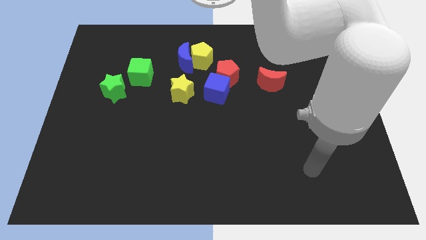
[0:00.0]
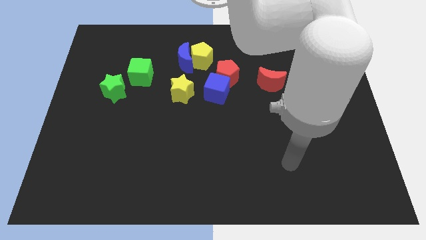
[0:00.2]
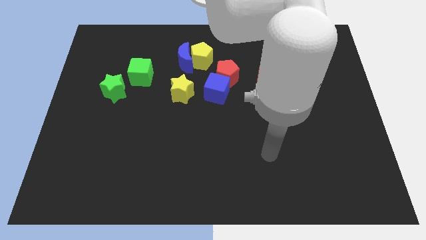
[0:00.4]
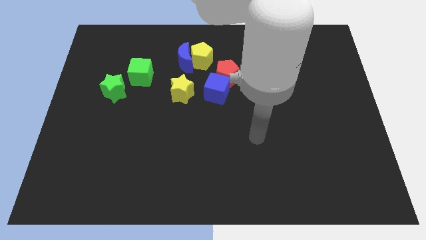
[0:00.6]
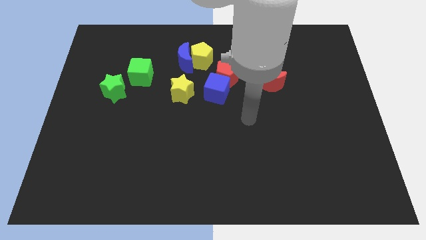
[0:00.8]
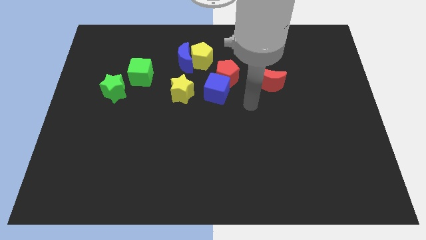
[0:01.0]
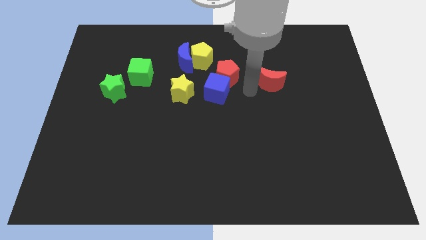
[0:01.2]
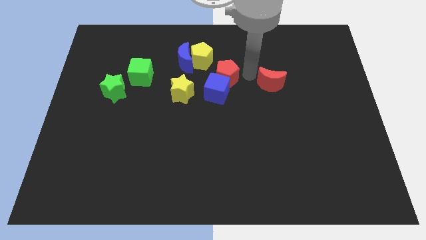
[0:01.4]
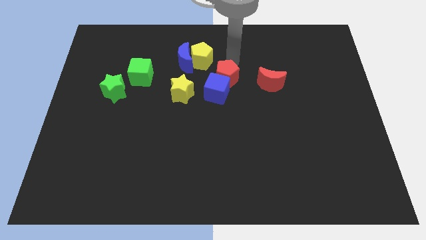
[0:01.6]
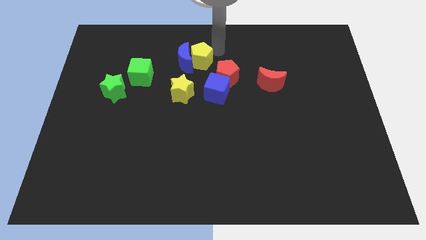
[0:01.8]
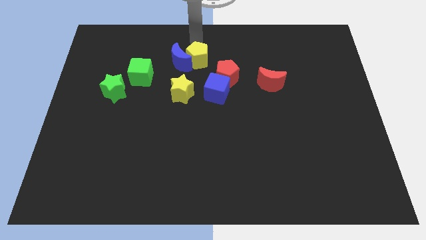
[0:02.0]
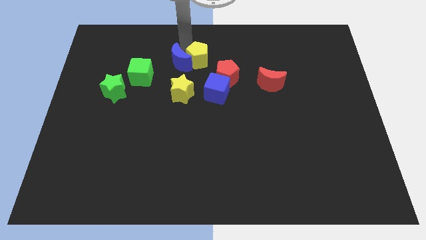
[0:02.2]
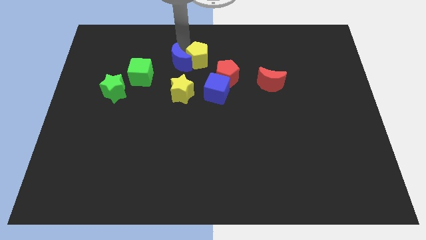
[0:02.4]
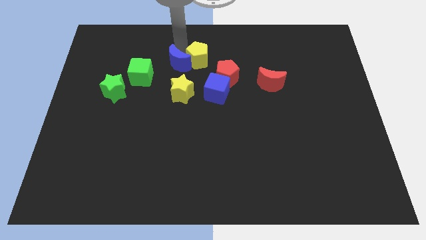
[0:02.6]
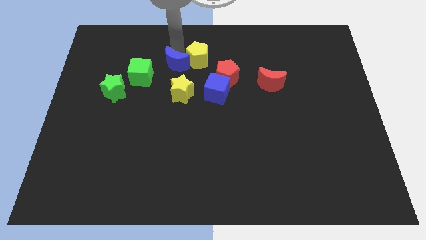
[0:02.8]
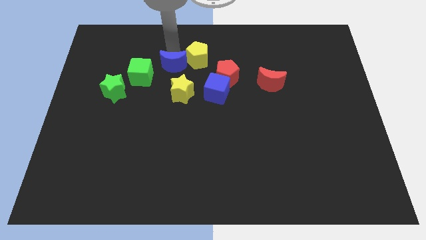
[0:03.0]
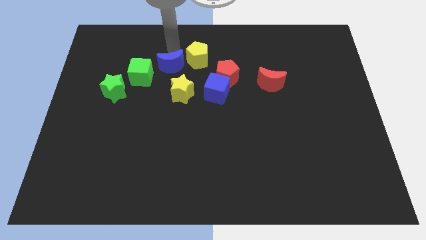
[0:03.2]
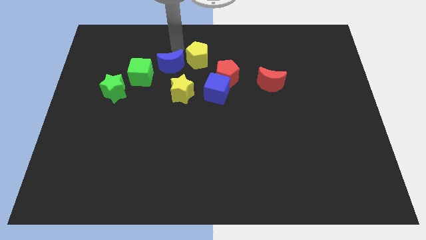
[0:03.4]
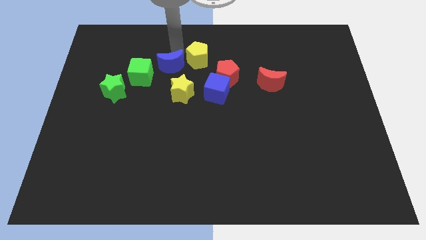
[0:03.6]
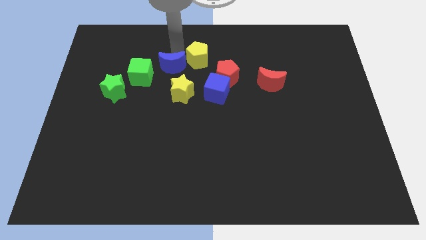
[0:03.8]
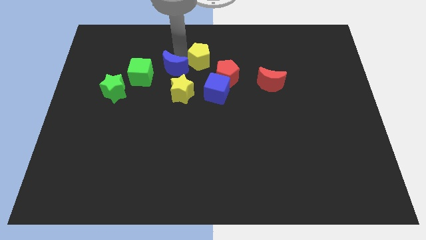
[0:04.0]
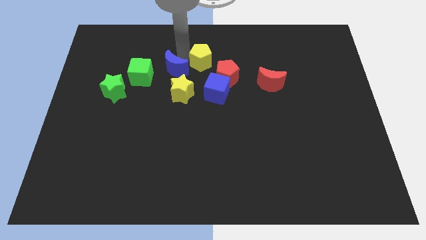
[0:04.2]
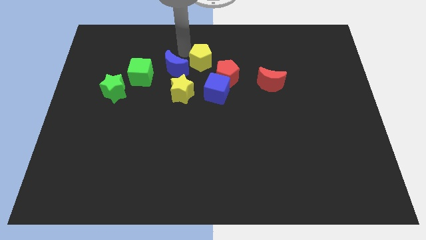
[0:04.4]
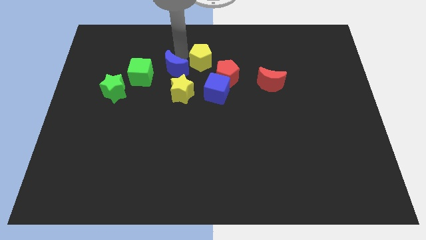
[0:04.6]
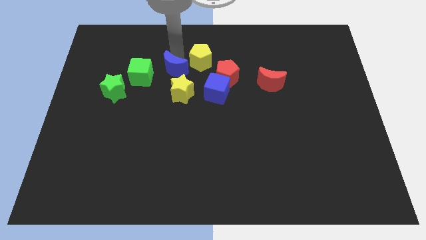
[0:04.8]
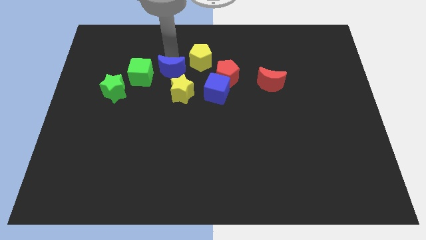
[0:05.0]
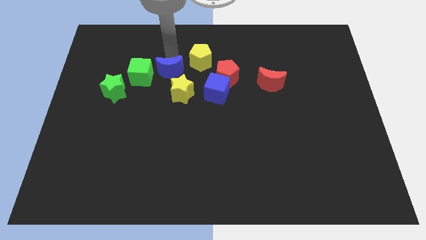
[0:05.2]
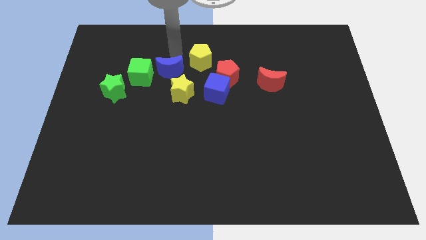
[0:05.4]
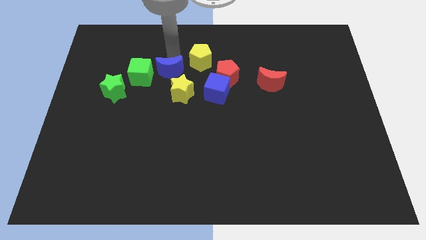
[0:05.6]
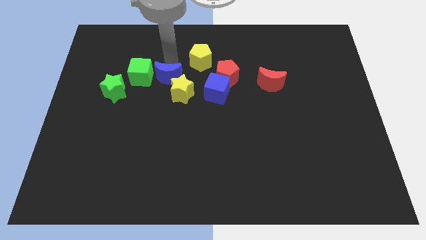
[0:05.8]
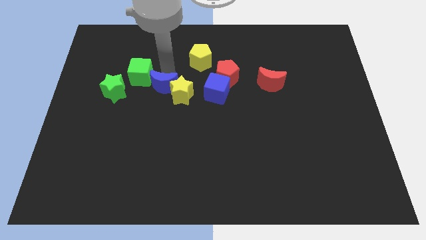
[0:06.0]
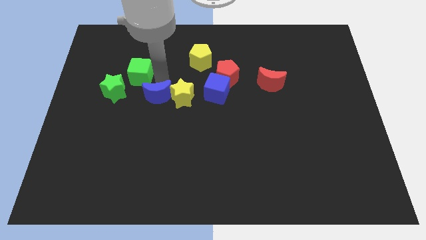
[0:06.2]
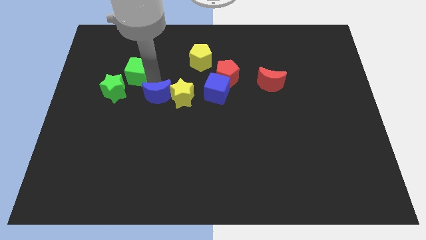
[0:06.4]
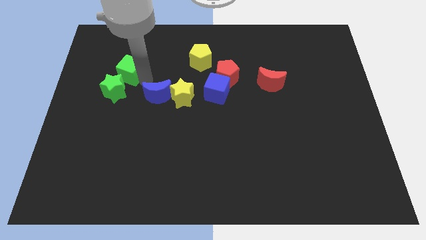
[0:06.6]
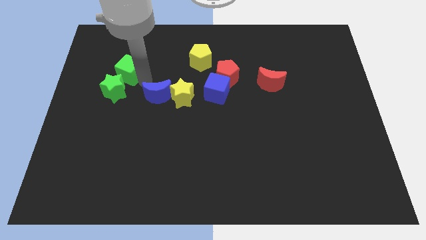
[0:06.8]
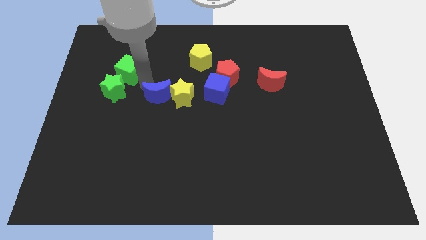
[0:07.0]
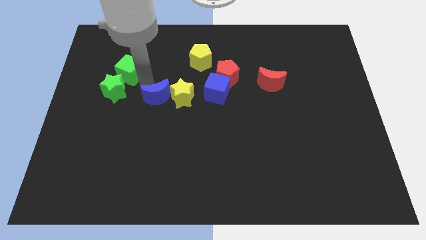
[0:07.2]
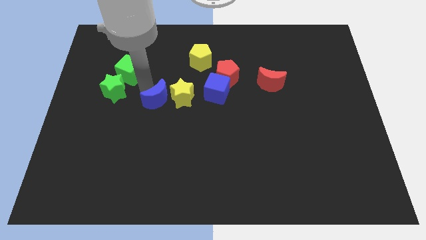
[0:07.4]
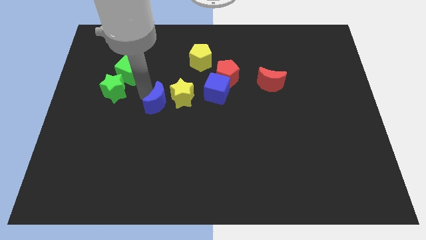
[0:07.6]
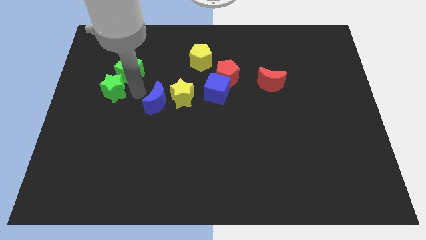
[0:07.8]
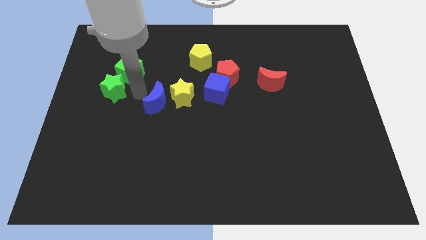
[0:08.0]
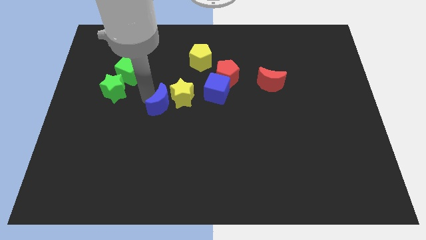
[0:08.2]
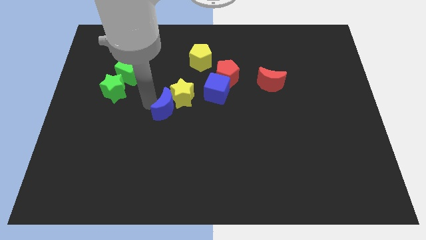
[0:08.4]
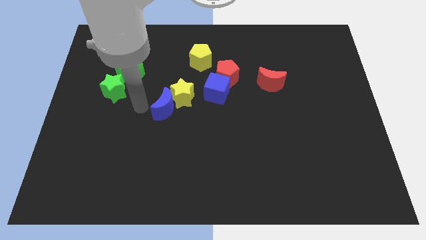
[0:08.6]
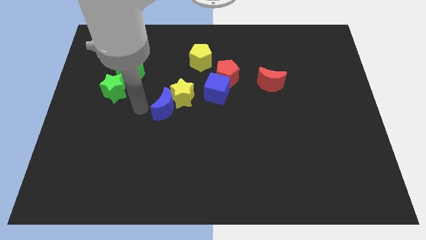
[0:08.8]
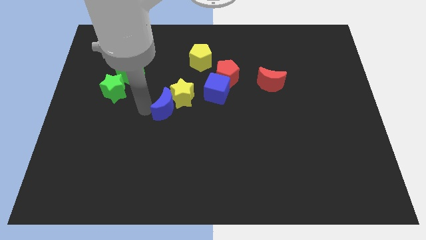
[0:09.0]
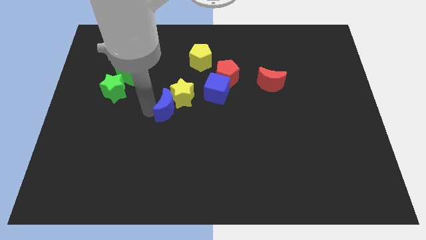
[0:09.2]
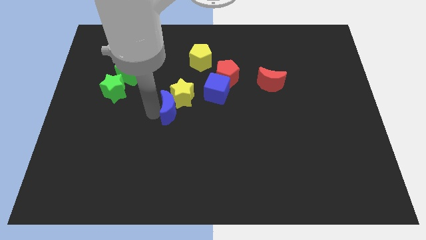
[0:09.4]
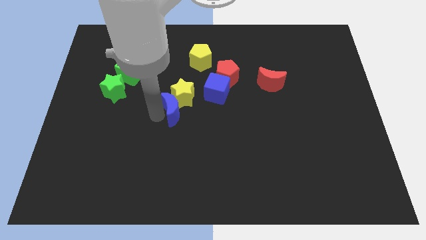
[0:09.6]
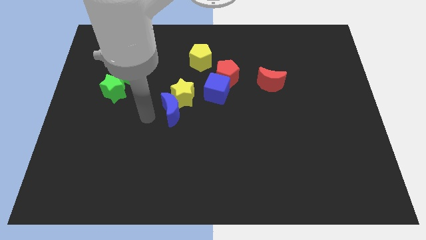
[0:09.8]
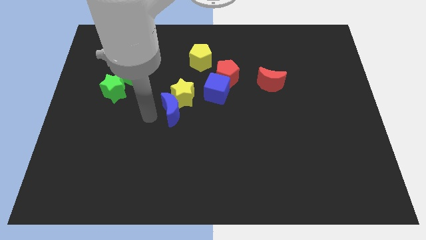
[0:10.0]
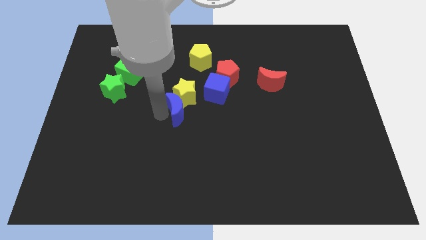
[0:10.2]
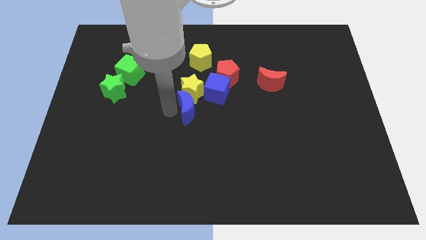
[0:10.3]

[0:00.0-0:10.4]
push the blue moon down and to the right a bit

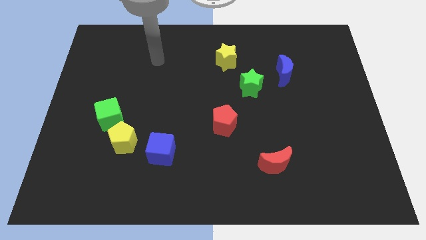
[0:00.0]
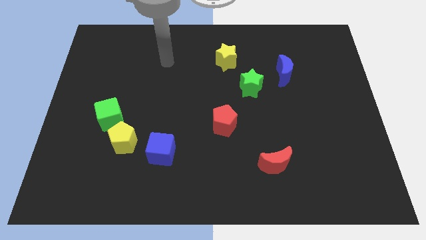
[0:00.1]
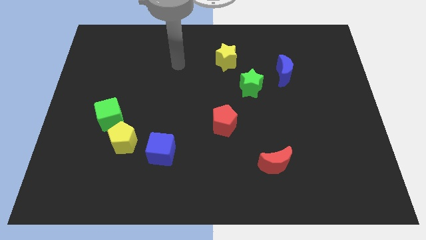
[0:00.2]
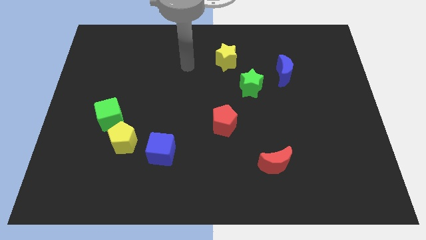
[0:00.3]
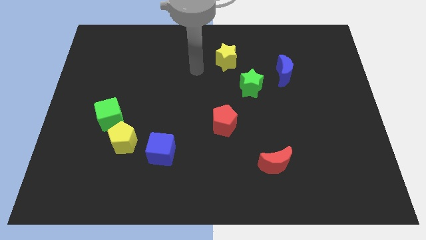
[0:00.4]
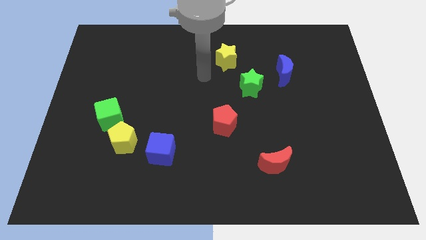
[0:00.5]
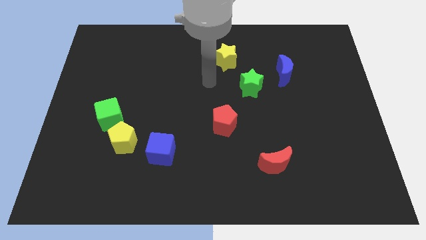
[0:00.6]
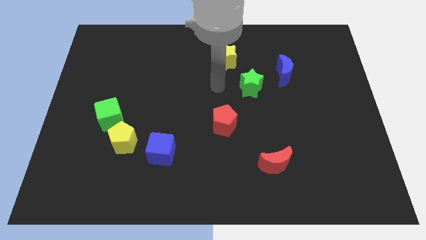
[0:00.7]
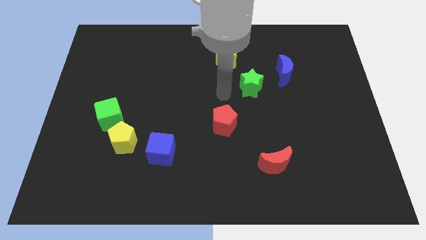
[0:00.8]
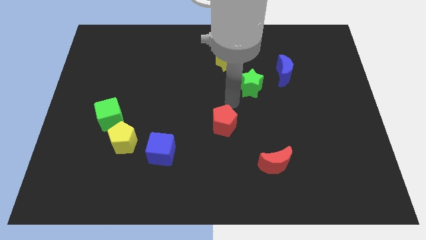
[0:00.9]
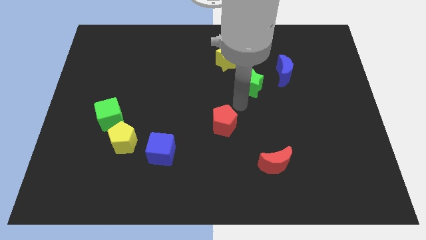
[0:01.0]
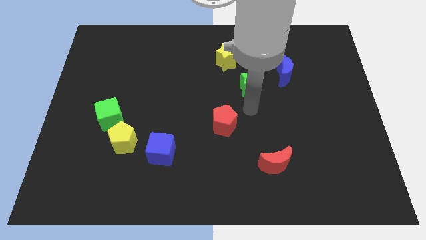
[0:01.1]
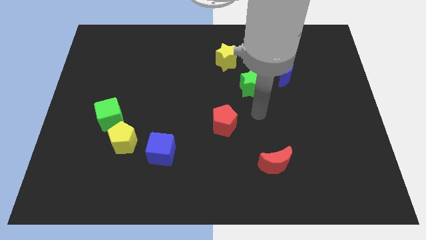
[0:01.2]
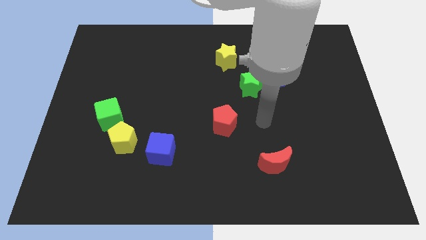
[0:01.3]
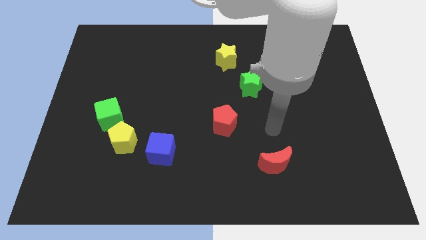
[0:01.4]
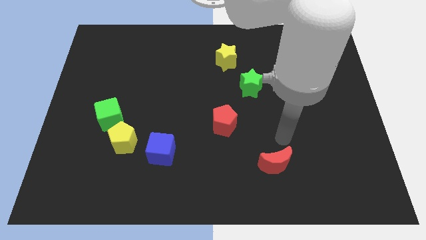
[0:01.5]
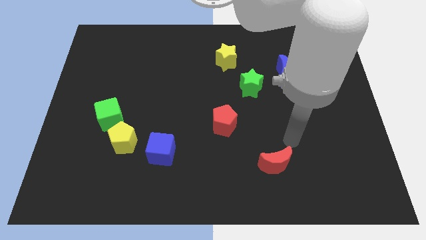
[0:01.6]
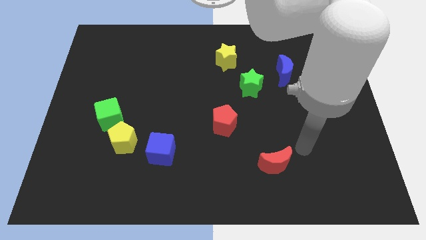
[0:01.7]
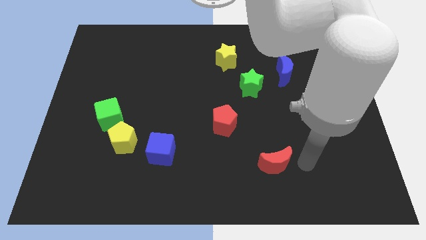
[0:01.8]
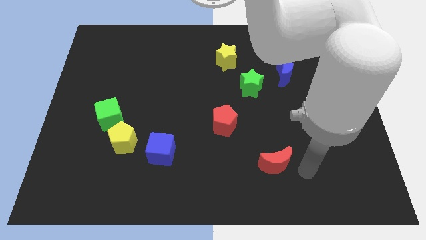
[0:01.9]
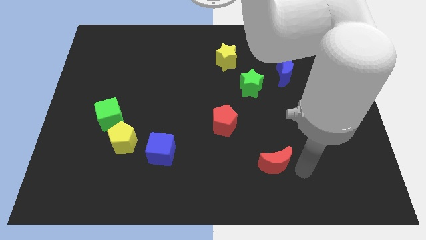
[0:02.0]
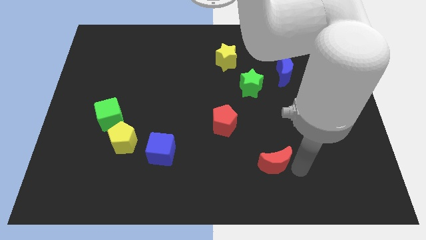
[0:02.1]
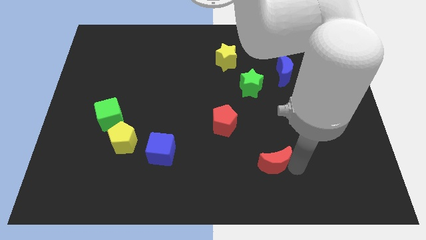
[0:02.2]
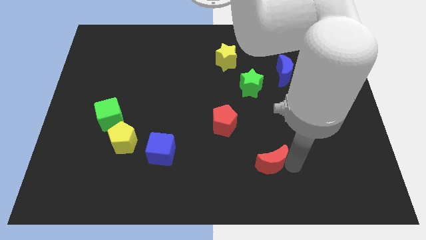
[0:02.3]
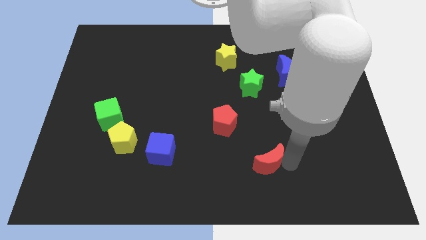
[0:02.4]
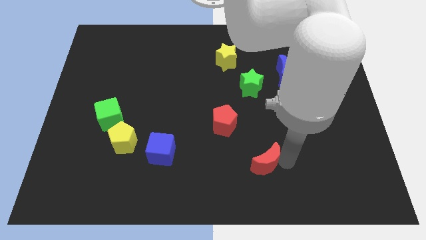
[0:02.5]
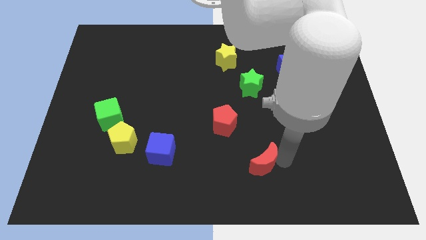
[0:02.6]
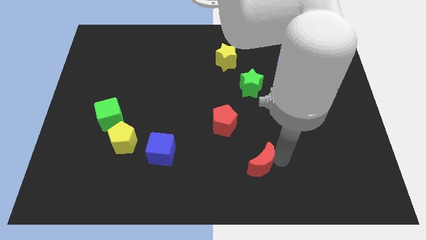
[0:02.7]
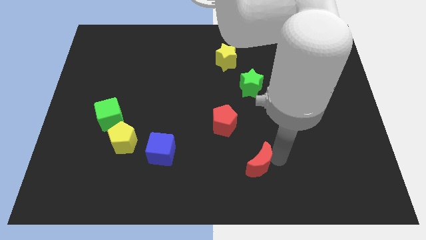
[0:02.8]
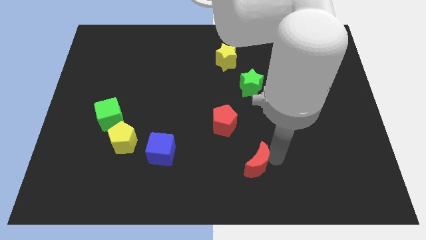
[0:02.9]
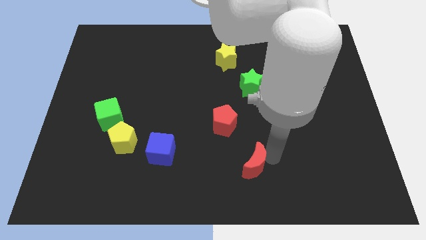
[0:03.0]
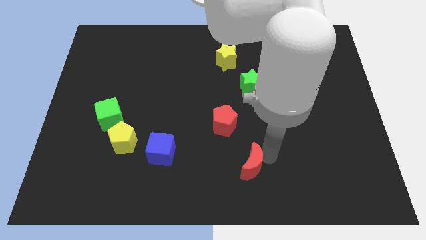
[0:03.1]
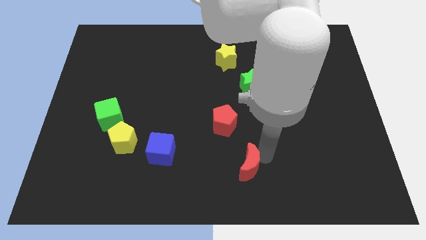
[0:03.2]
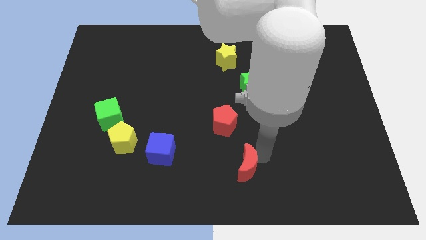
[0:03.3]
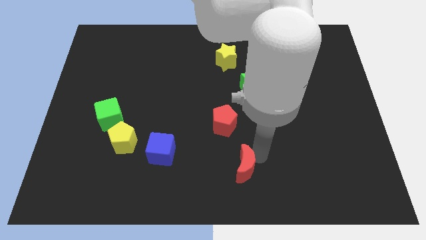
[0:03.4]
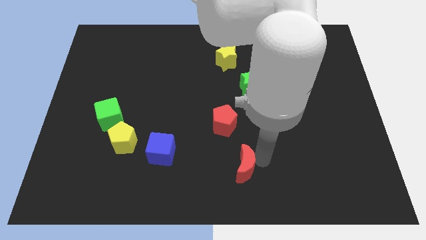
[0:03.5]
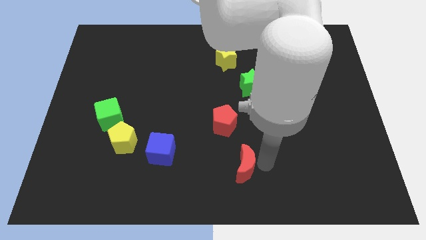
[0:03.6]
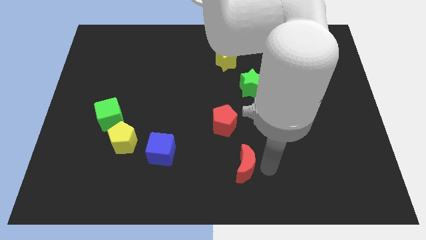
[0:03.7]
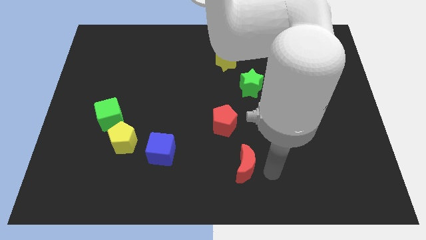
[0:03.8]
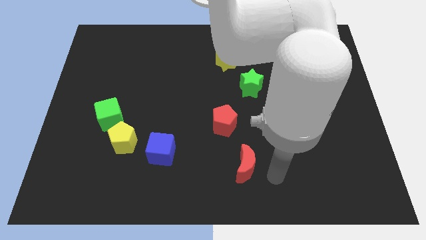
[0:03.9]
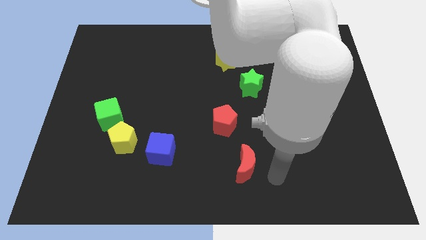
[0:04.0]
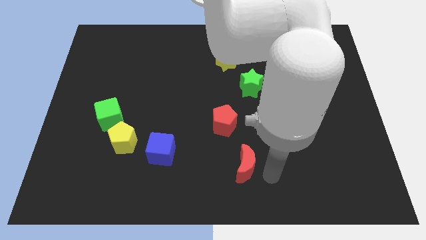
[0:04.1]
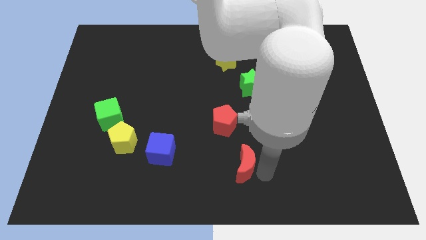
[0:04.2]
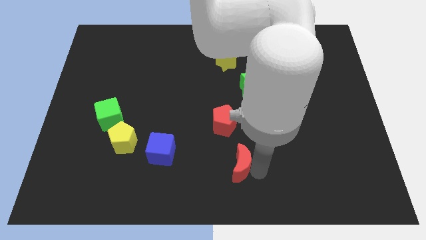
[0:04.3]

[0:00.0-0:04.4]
slide the red moon a little left
